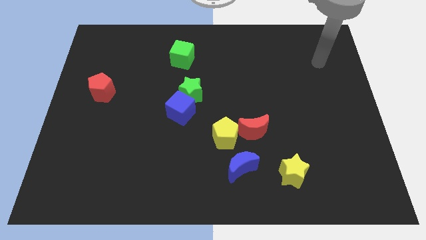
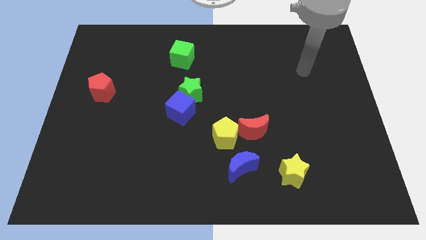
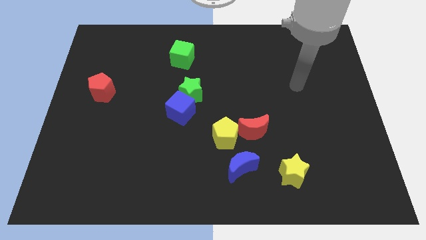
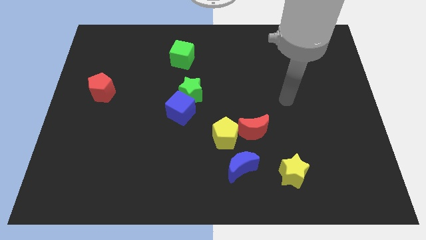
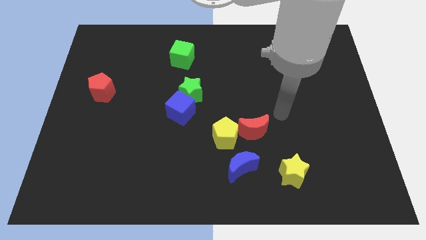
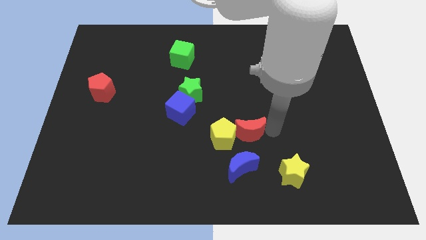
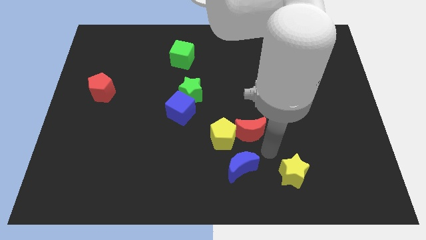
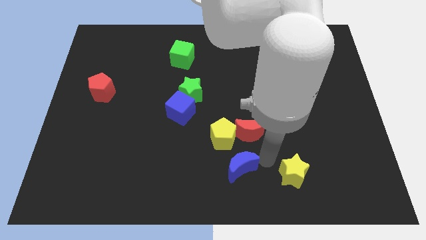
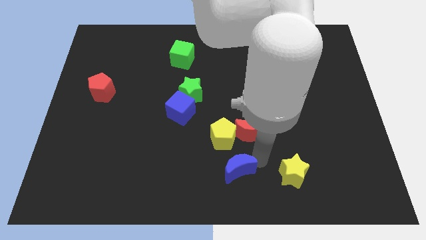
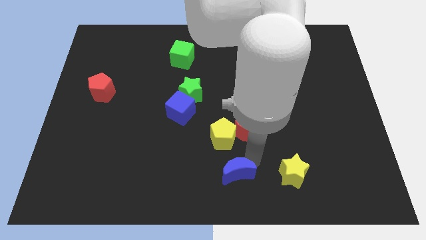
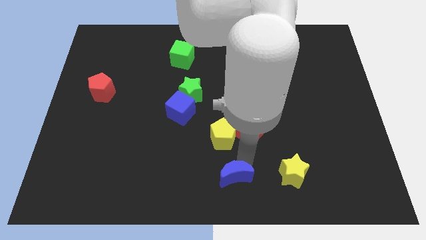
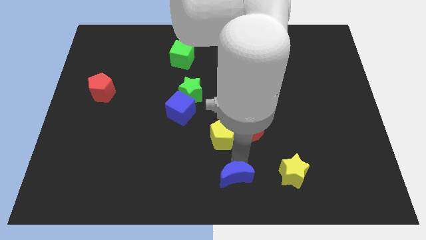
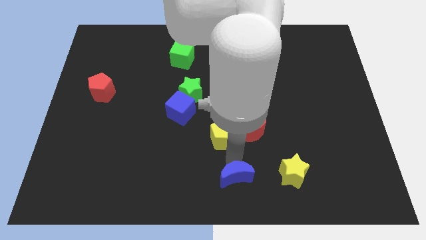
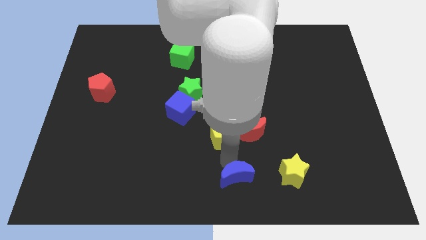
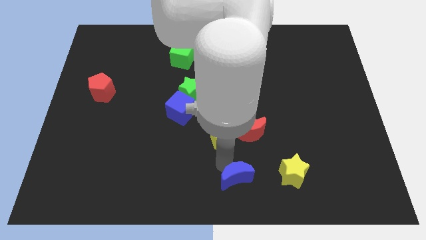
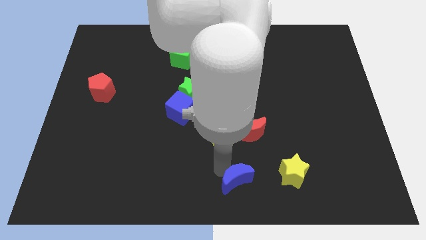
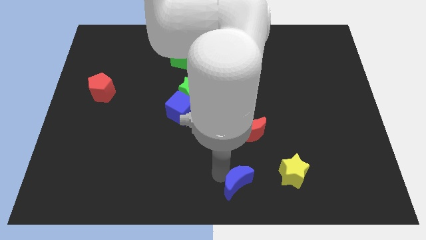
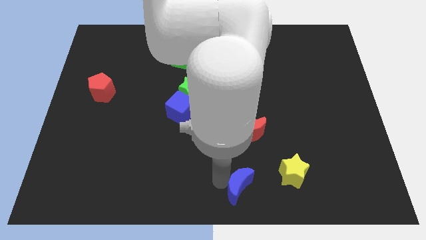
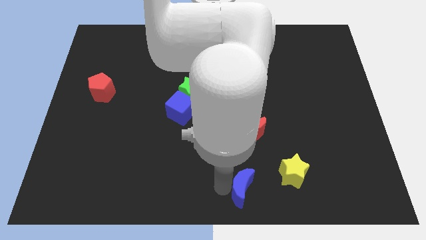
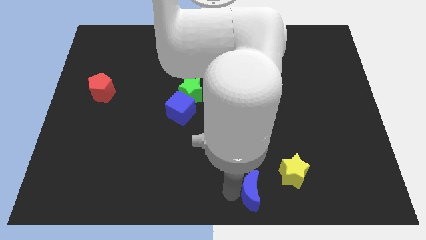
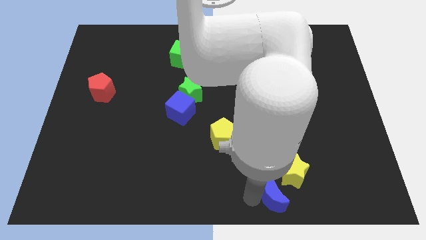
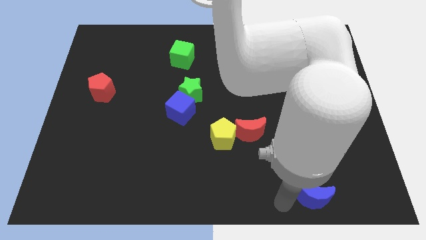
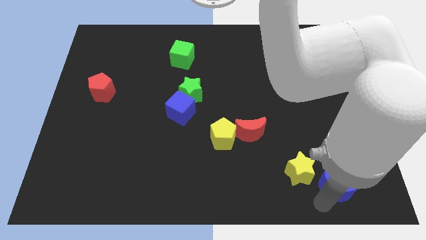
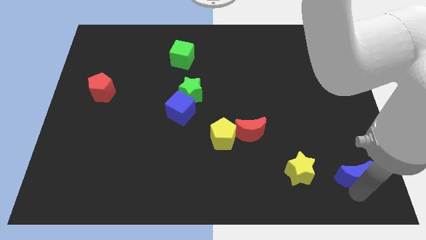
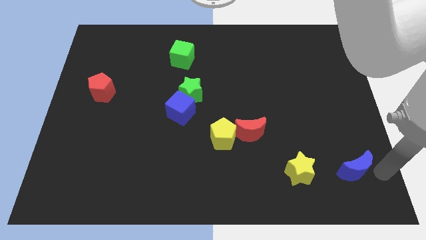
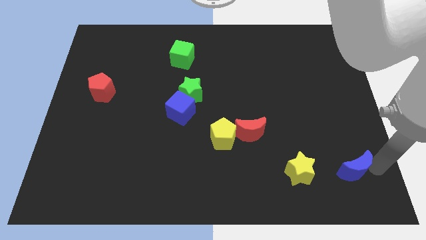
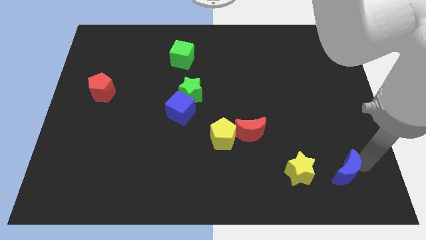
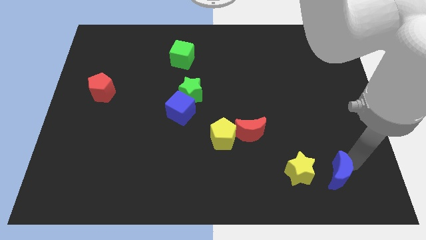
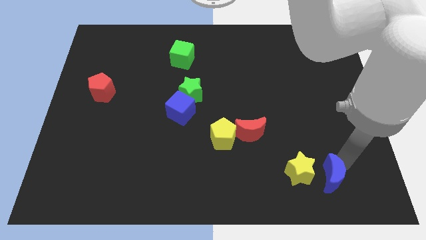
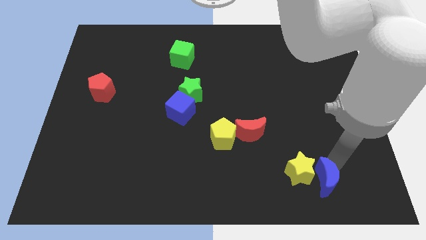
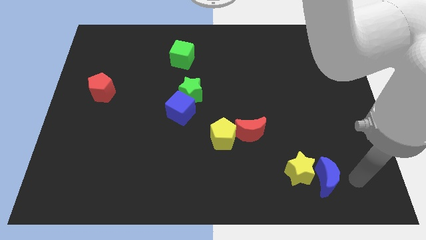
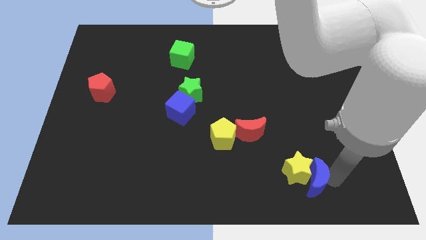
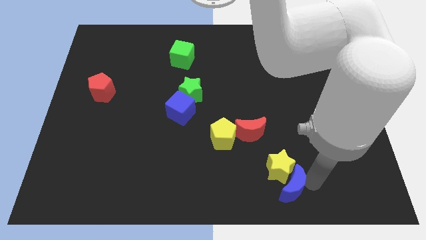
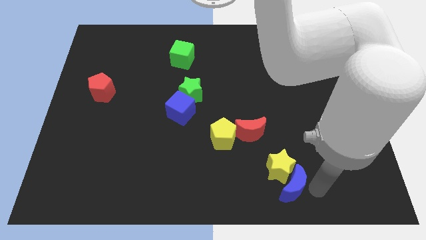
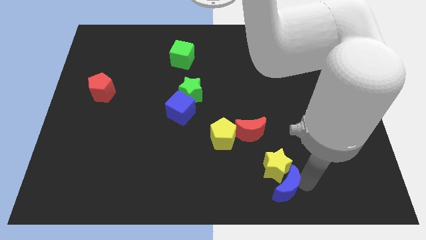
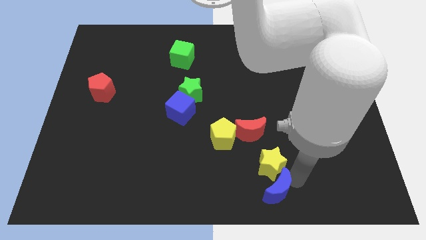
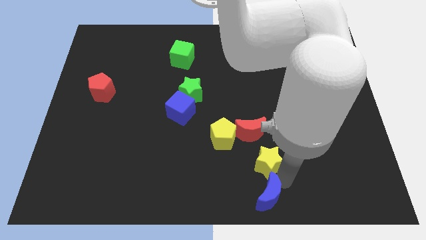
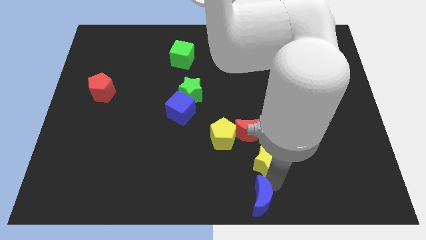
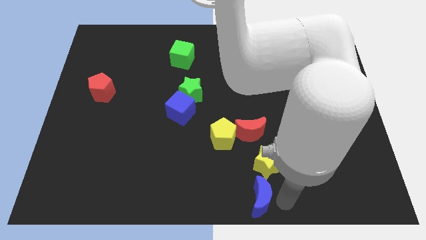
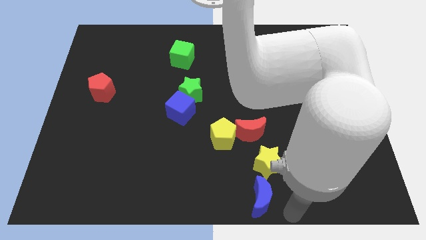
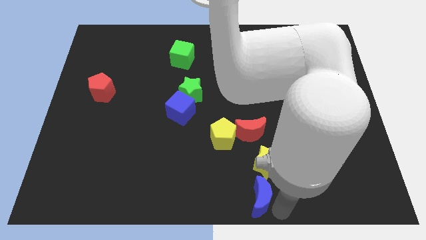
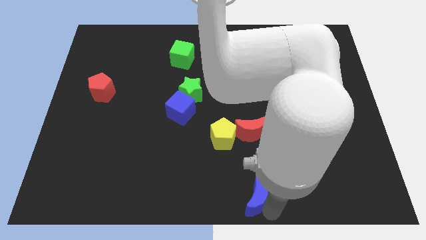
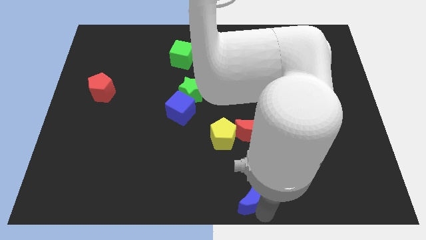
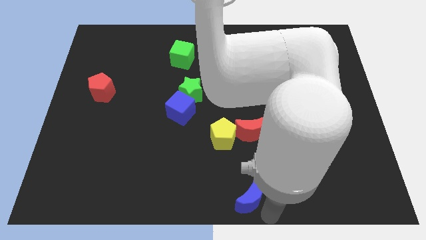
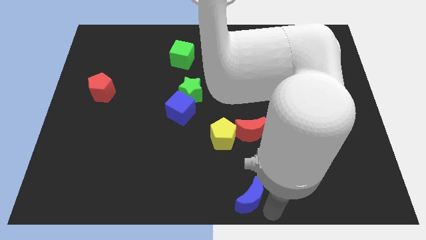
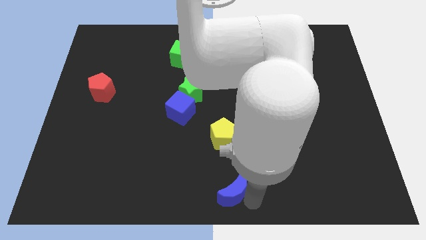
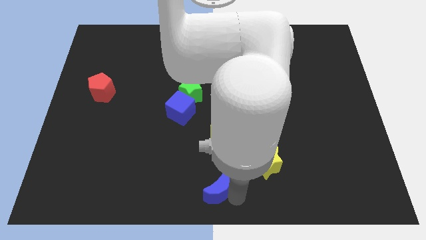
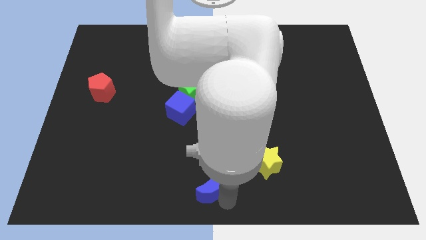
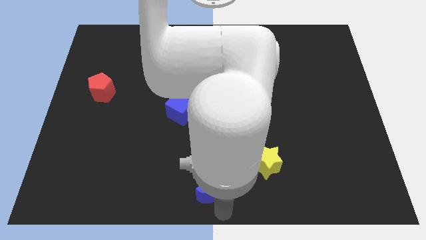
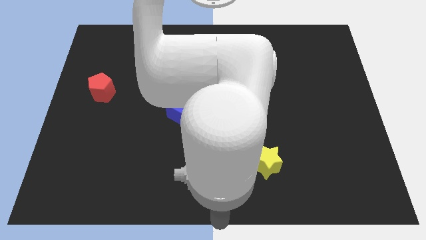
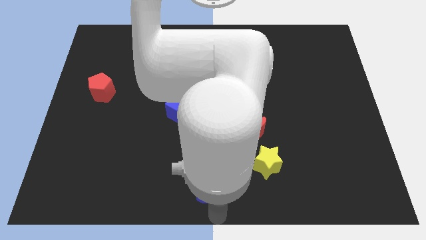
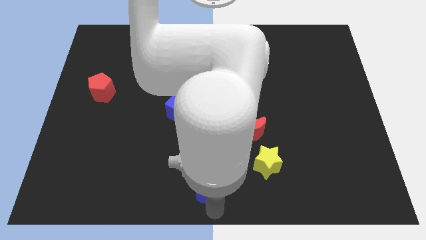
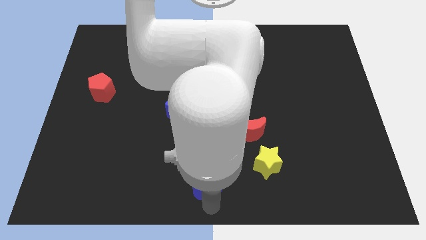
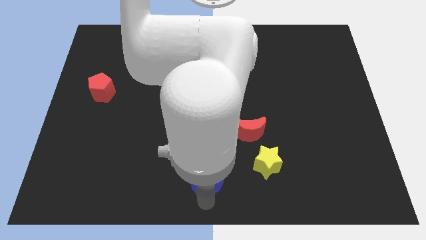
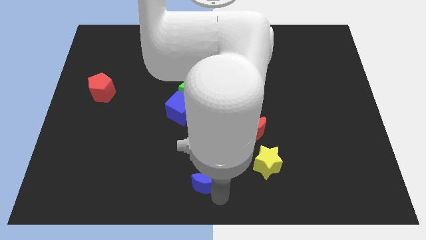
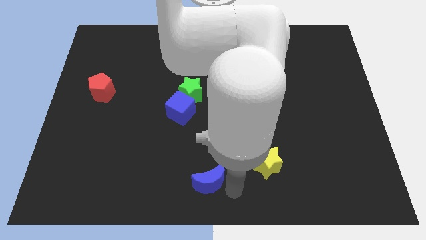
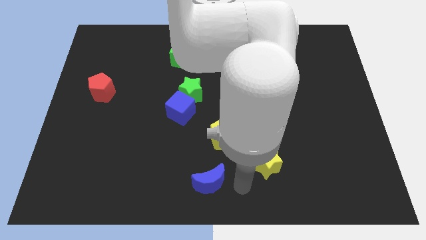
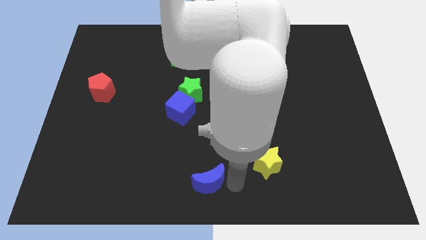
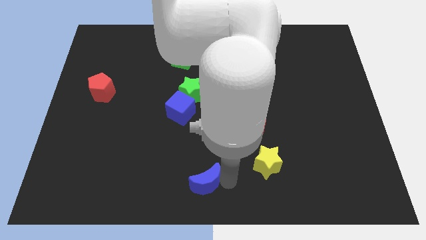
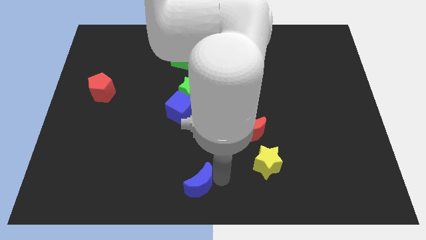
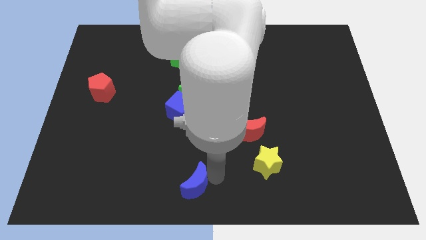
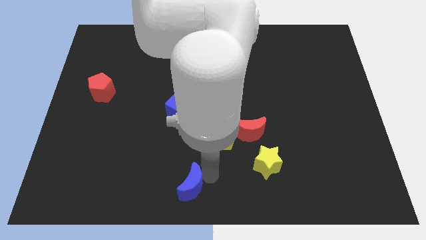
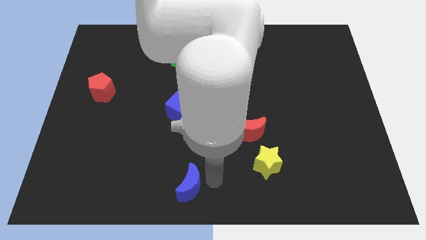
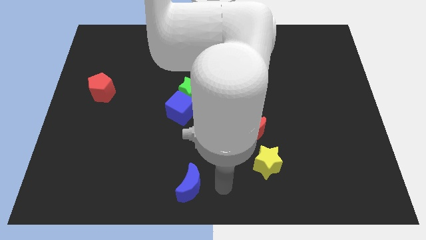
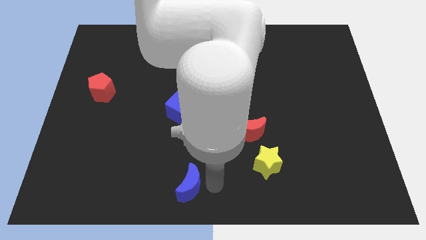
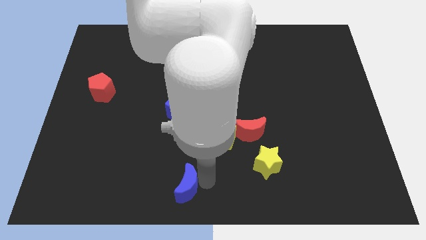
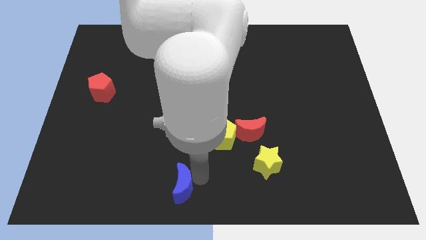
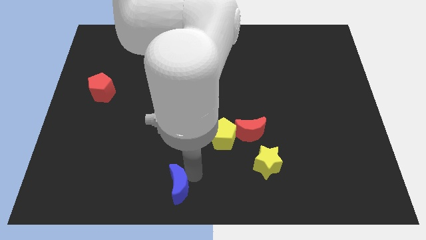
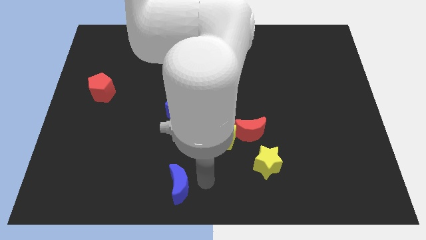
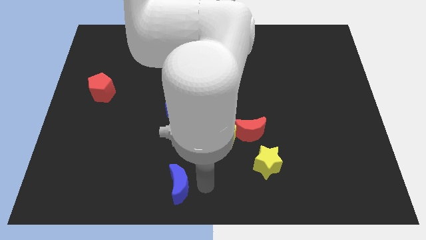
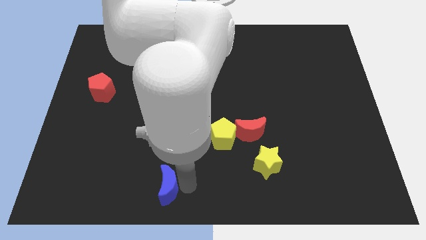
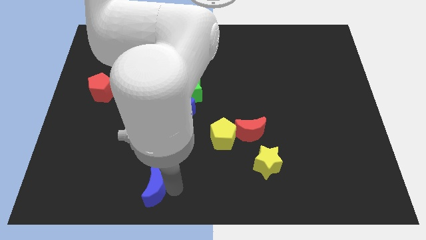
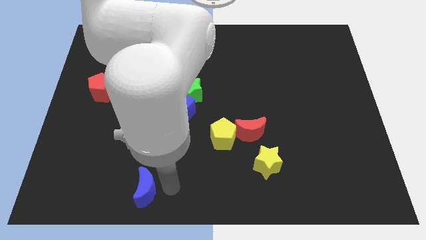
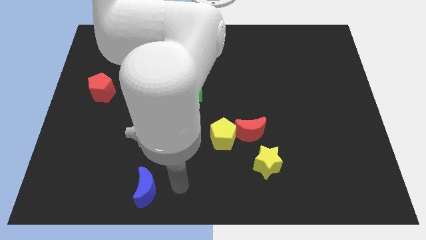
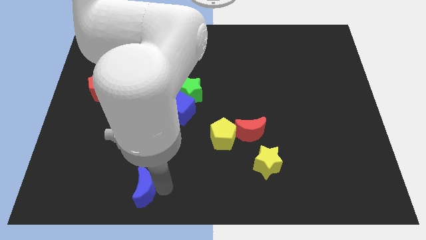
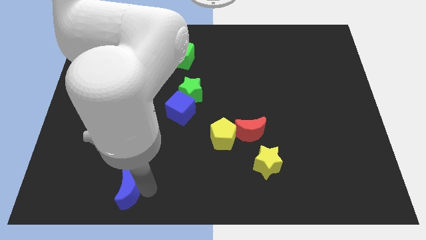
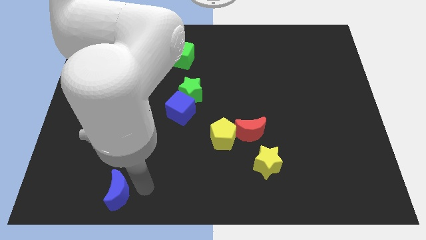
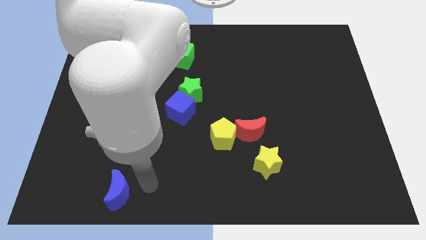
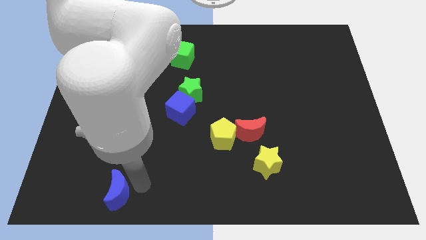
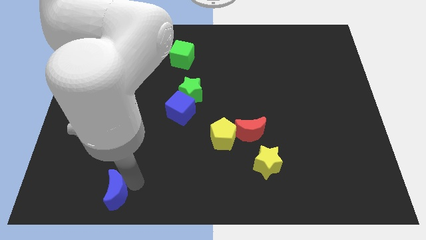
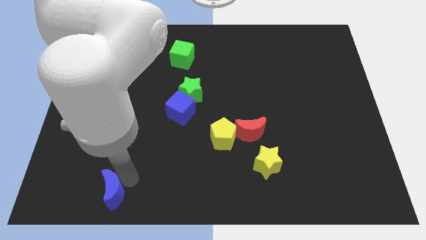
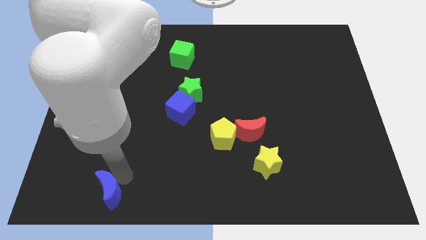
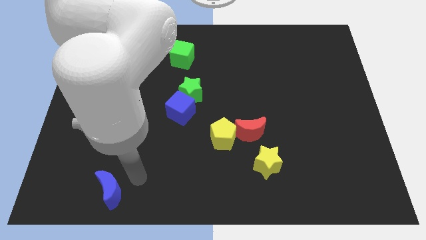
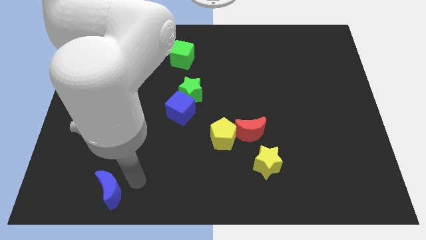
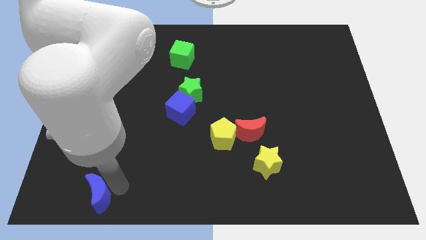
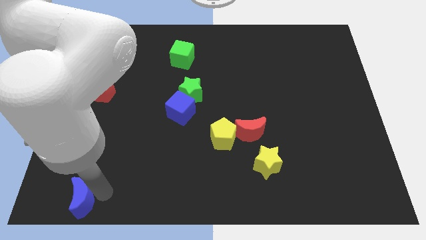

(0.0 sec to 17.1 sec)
slide the blue moon to the bottom left
